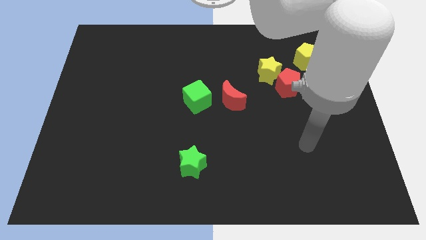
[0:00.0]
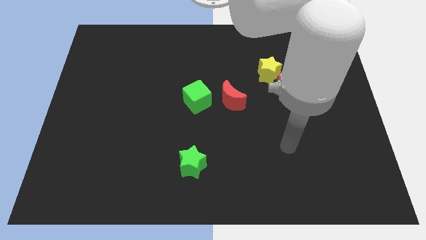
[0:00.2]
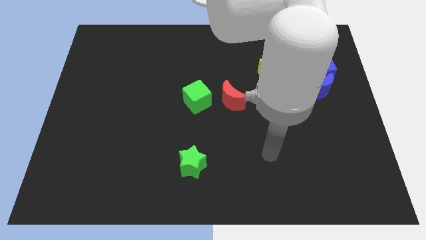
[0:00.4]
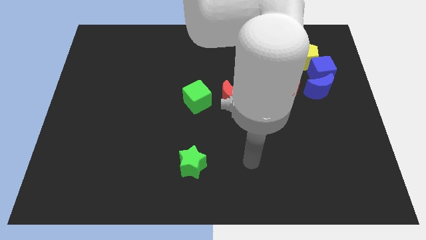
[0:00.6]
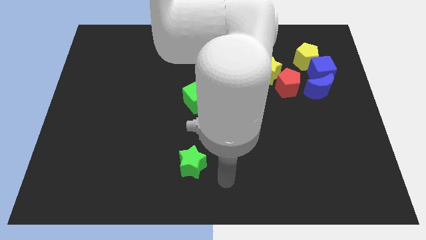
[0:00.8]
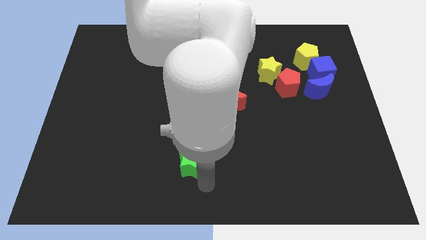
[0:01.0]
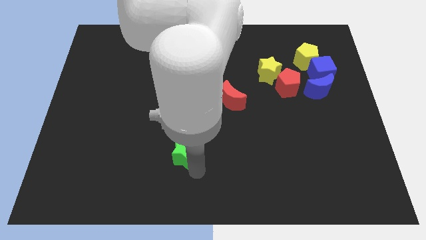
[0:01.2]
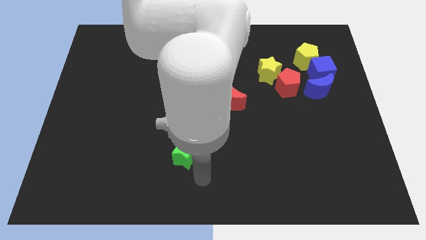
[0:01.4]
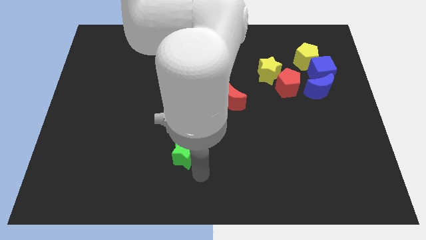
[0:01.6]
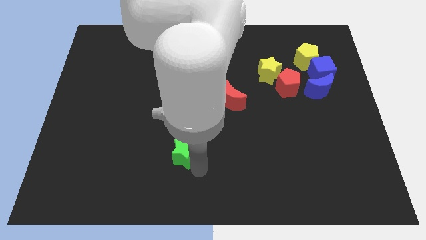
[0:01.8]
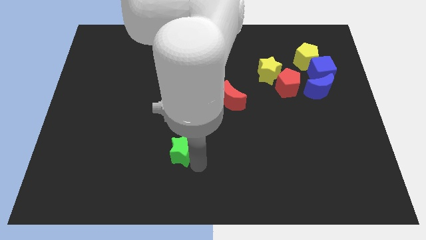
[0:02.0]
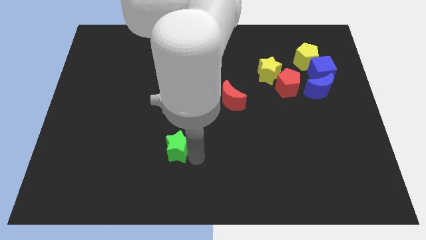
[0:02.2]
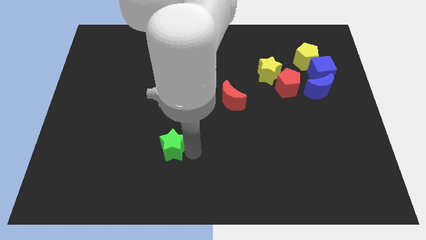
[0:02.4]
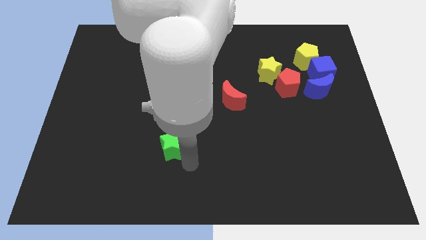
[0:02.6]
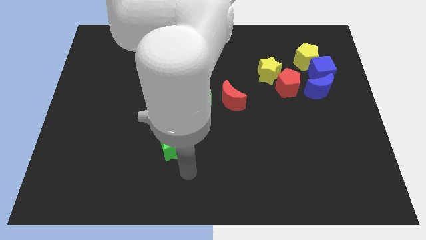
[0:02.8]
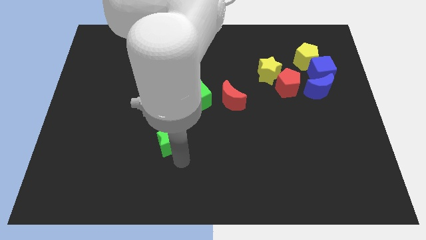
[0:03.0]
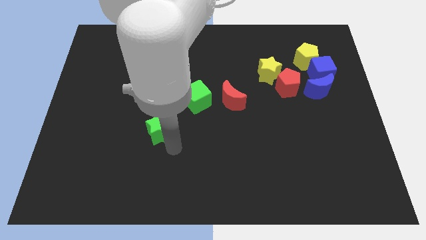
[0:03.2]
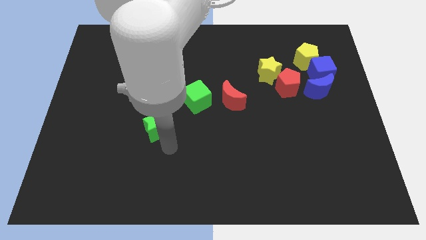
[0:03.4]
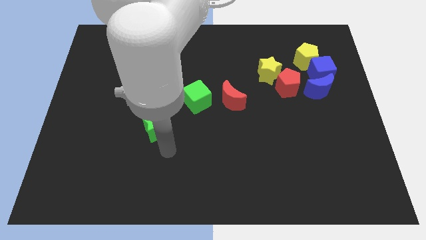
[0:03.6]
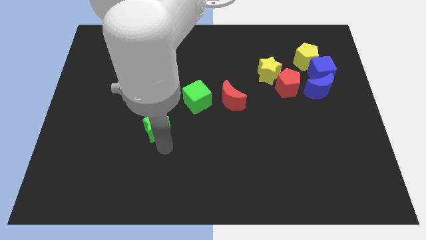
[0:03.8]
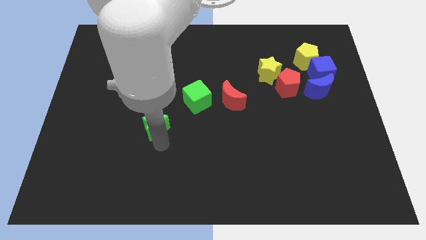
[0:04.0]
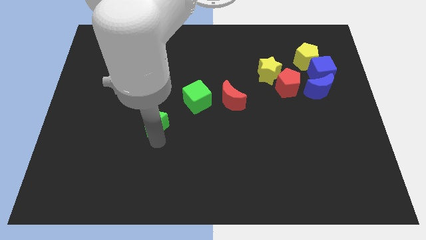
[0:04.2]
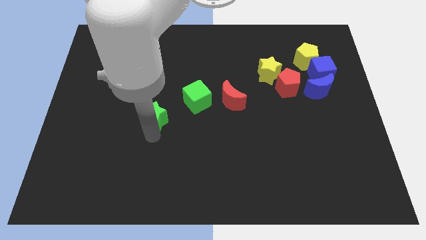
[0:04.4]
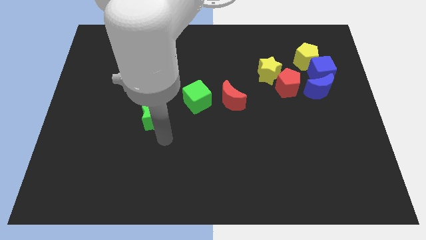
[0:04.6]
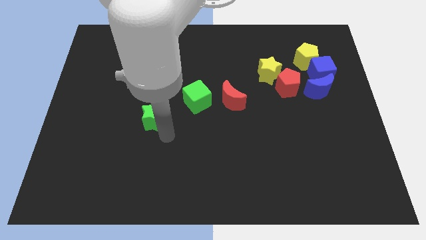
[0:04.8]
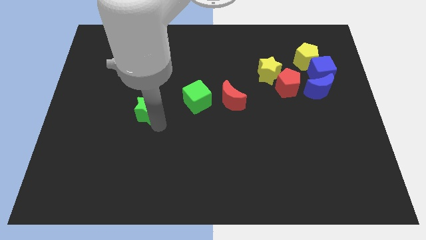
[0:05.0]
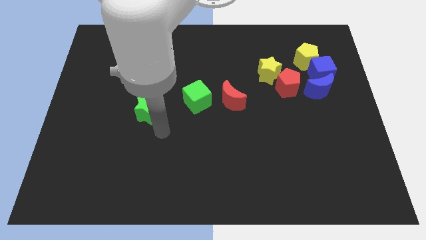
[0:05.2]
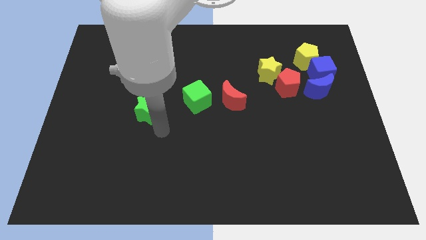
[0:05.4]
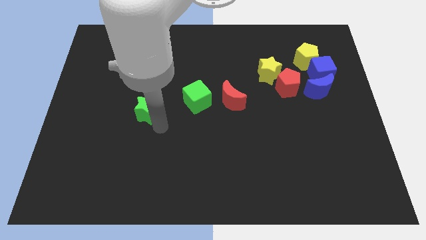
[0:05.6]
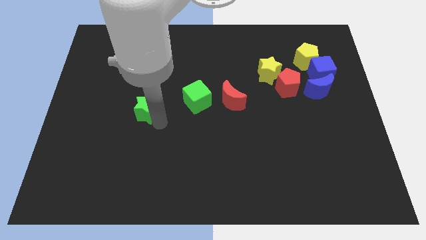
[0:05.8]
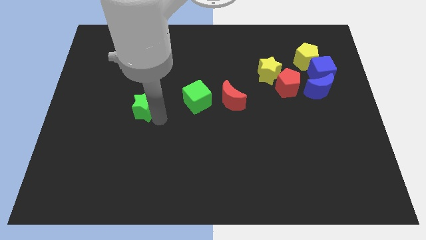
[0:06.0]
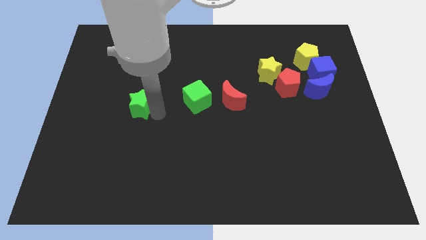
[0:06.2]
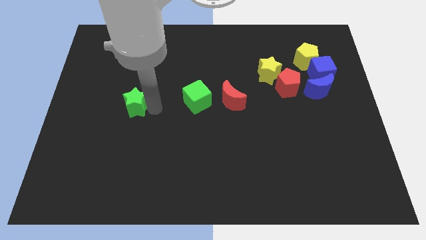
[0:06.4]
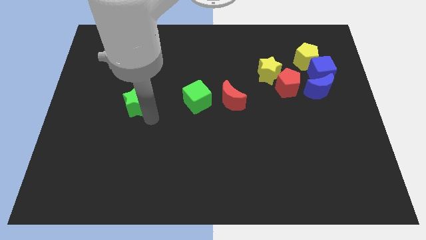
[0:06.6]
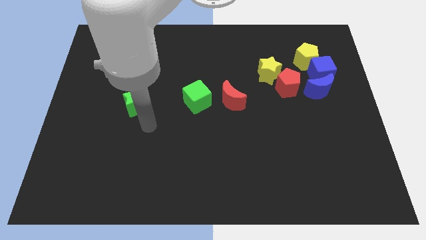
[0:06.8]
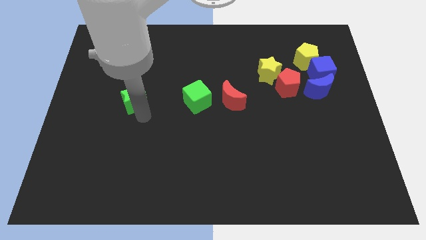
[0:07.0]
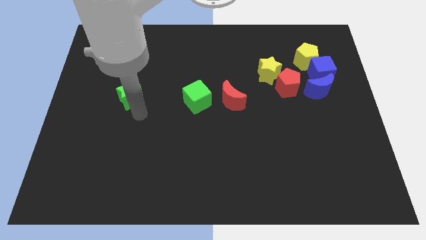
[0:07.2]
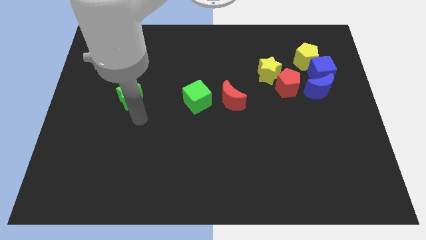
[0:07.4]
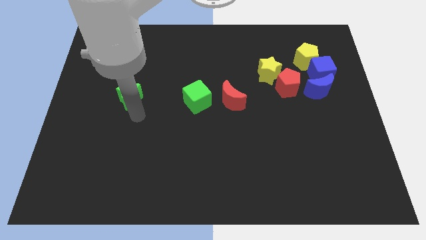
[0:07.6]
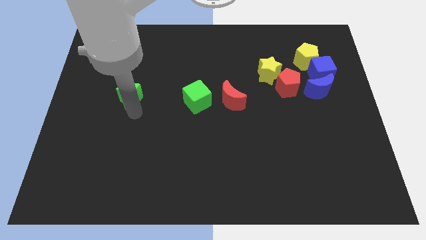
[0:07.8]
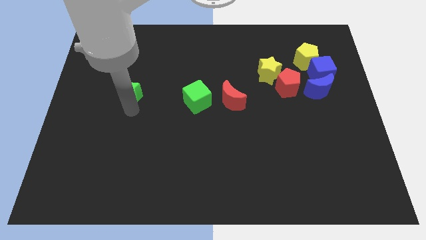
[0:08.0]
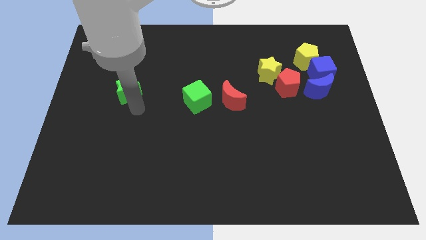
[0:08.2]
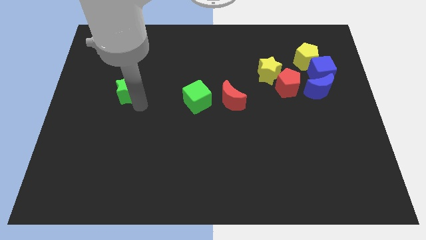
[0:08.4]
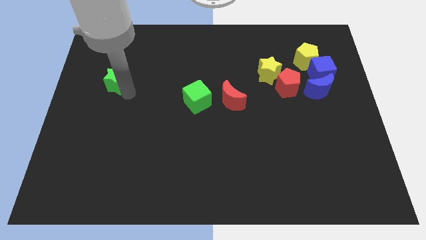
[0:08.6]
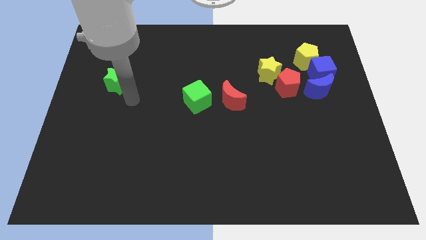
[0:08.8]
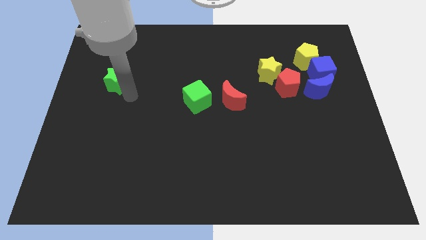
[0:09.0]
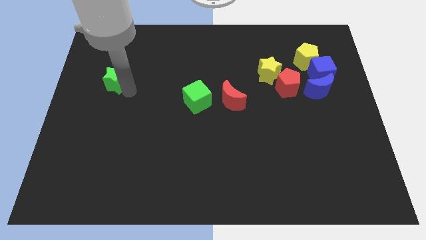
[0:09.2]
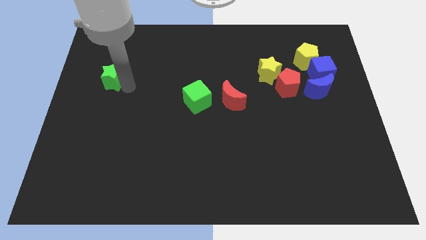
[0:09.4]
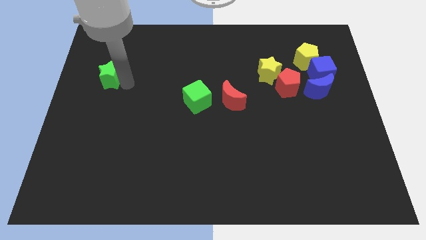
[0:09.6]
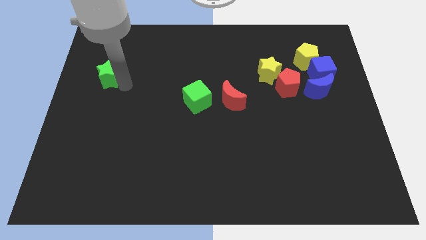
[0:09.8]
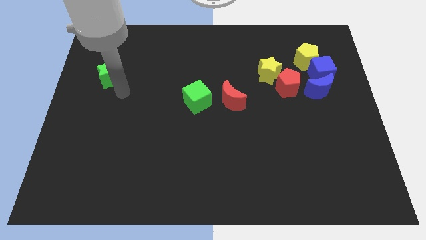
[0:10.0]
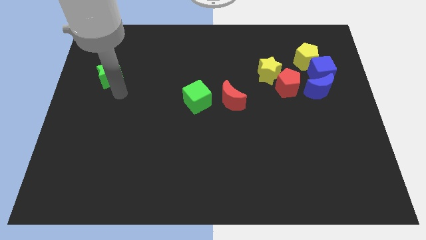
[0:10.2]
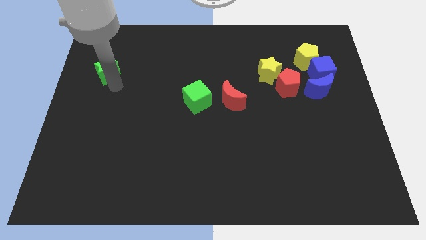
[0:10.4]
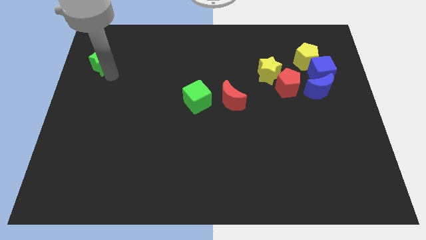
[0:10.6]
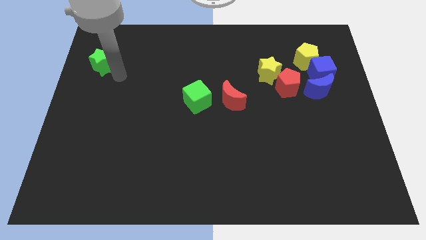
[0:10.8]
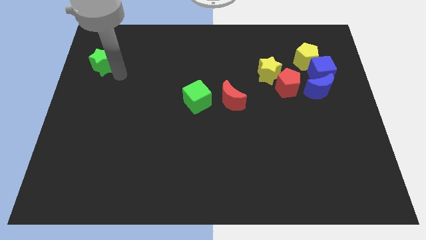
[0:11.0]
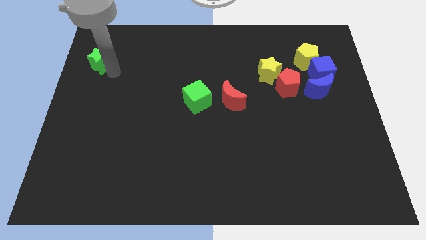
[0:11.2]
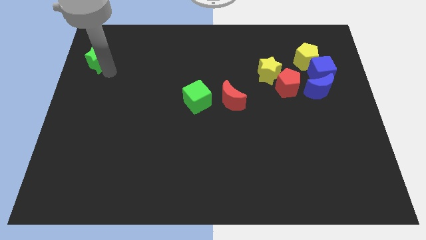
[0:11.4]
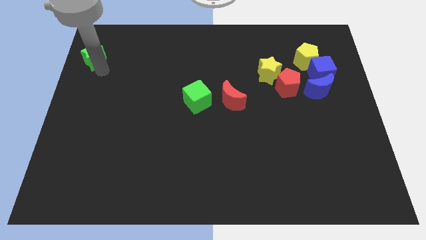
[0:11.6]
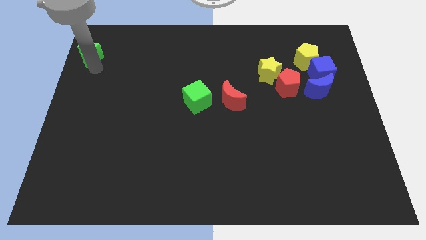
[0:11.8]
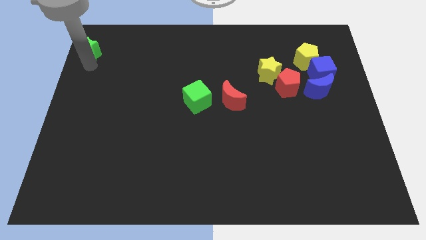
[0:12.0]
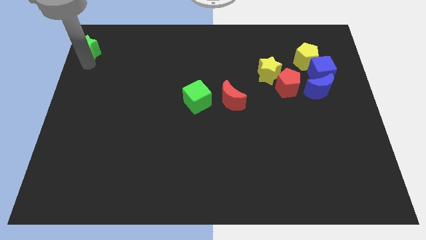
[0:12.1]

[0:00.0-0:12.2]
put the green star to the top left

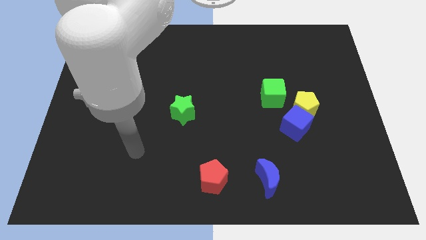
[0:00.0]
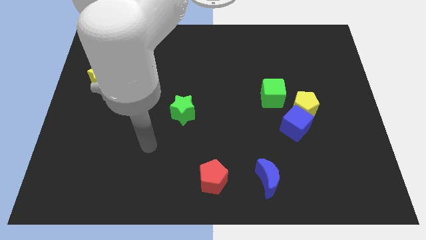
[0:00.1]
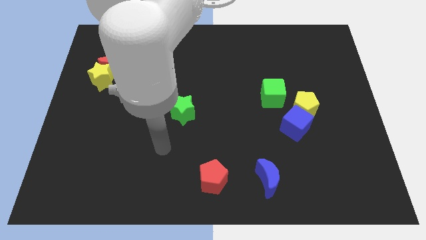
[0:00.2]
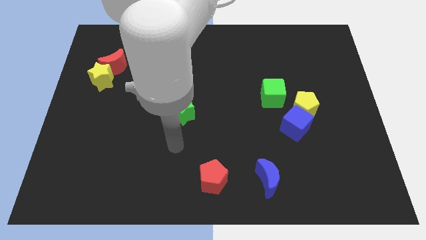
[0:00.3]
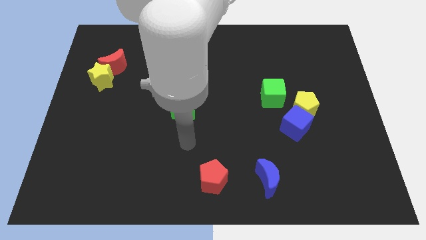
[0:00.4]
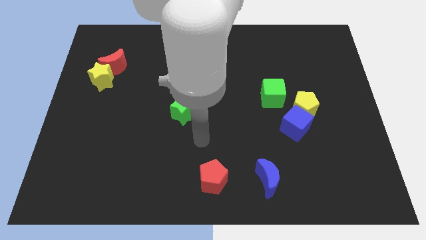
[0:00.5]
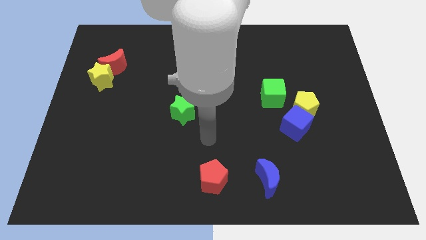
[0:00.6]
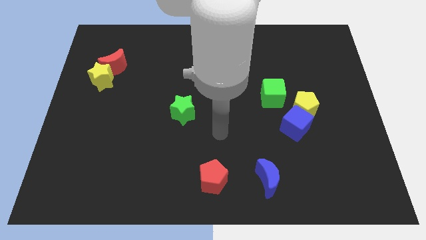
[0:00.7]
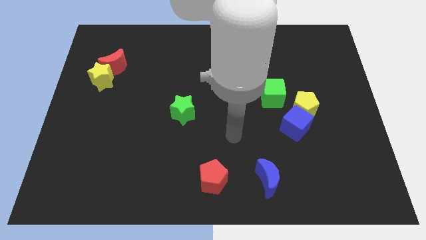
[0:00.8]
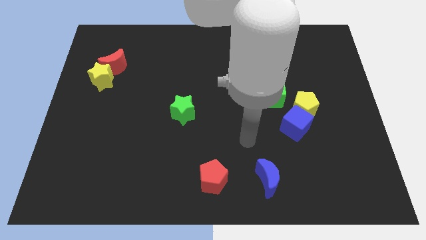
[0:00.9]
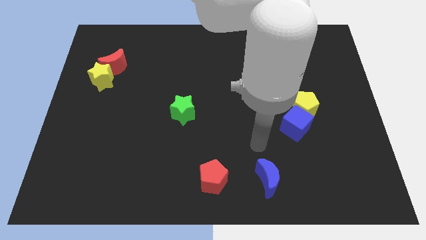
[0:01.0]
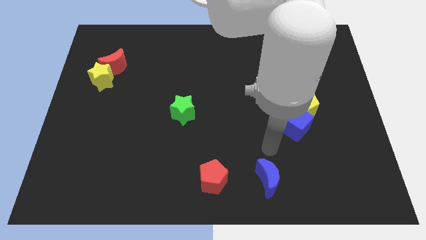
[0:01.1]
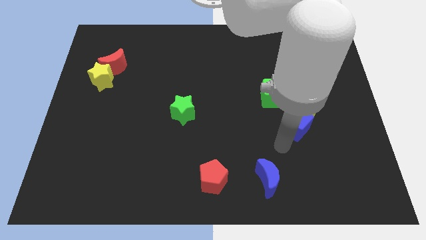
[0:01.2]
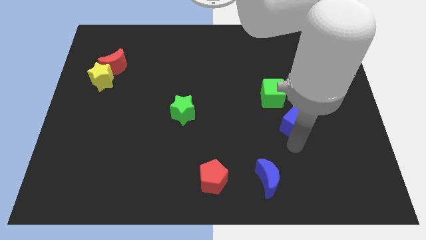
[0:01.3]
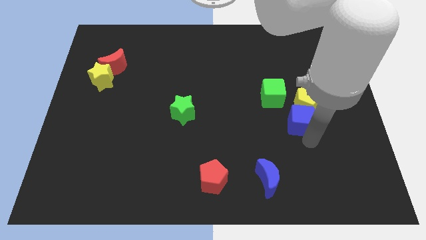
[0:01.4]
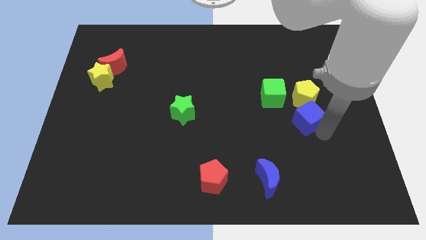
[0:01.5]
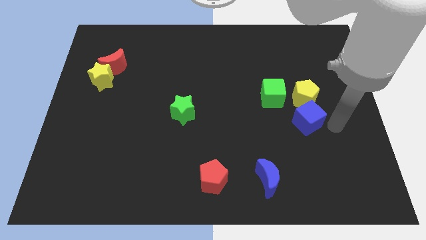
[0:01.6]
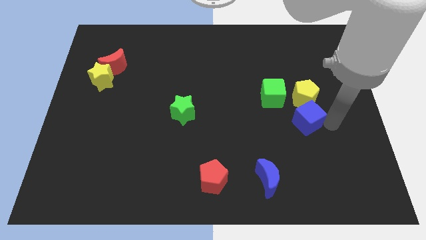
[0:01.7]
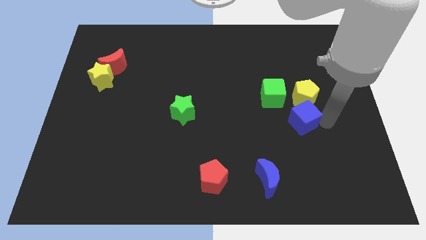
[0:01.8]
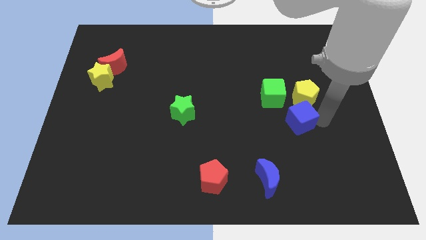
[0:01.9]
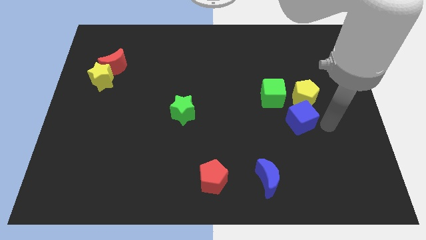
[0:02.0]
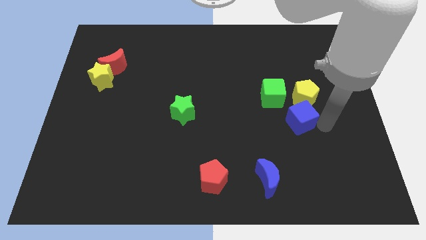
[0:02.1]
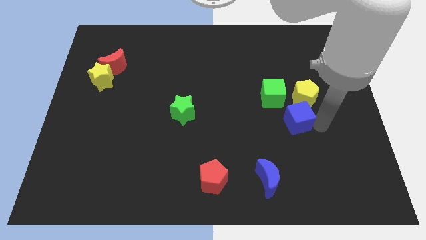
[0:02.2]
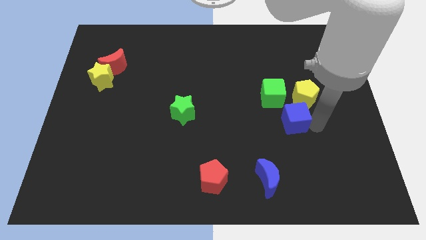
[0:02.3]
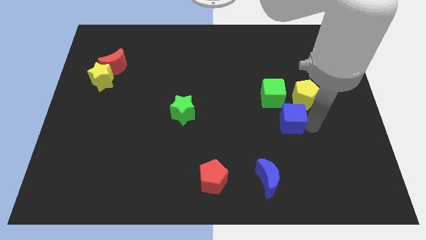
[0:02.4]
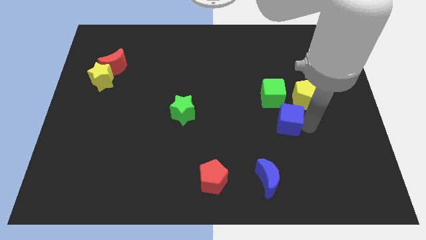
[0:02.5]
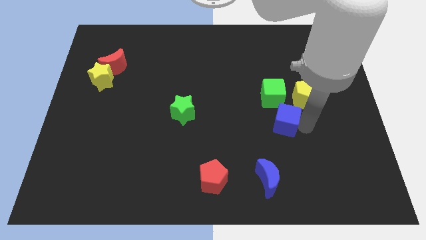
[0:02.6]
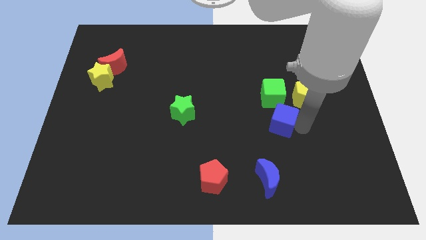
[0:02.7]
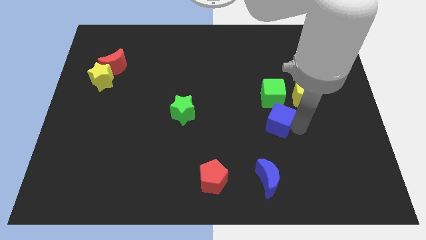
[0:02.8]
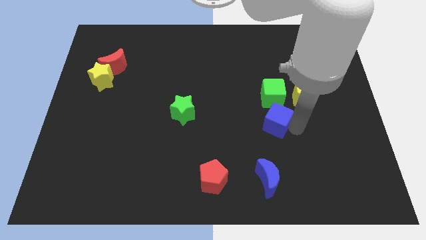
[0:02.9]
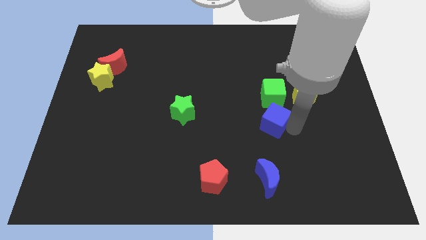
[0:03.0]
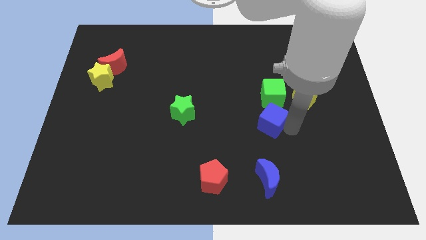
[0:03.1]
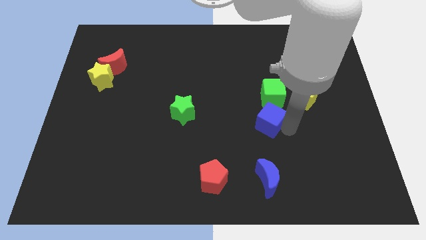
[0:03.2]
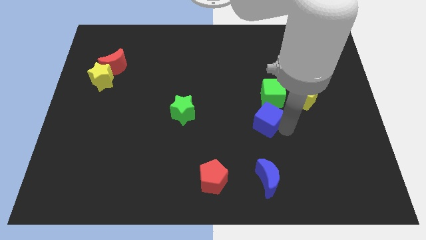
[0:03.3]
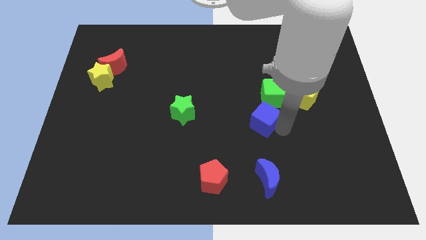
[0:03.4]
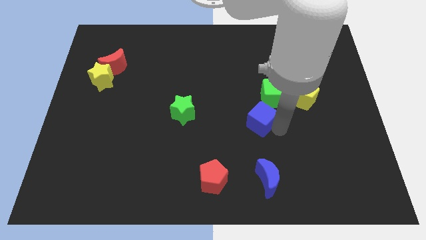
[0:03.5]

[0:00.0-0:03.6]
put the blue cube to the middle of the board
